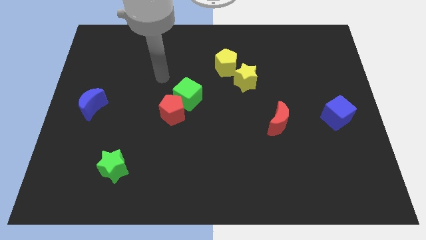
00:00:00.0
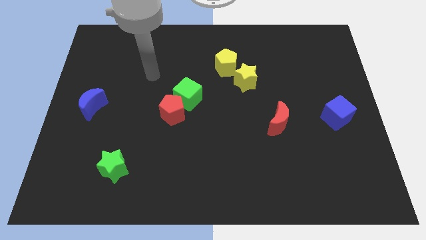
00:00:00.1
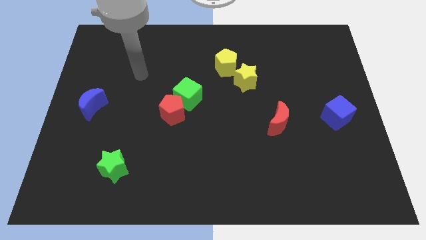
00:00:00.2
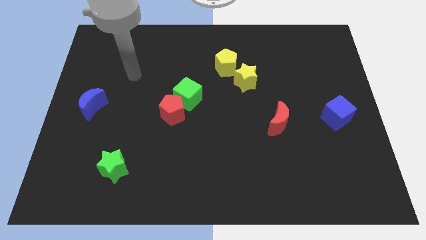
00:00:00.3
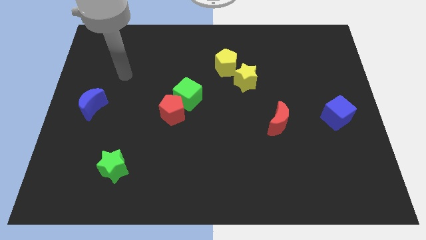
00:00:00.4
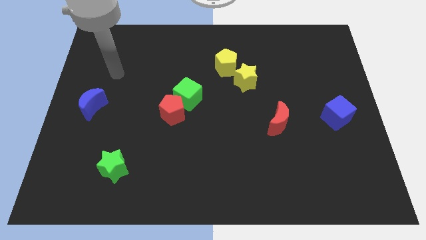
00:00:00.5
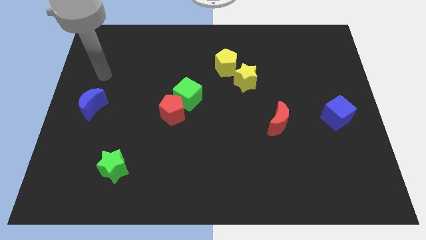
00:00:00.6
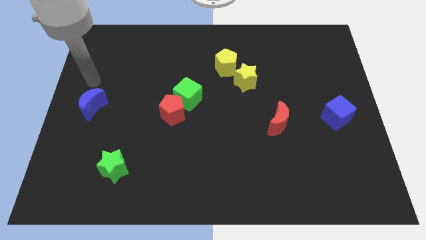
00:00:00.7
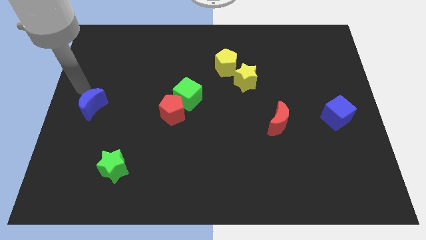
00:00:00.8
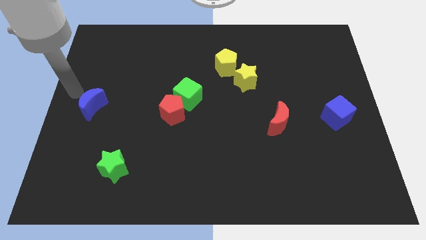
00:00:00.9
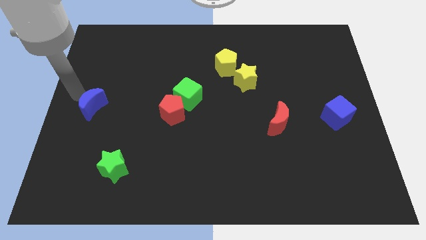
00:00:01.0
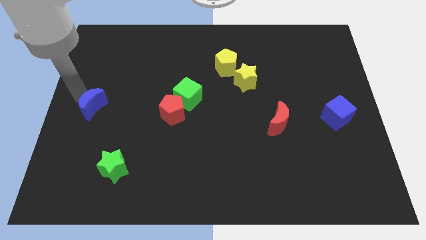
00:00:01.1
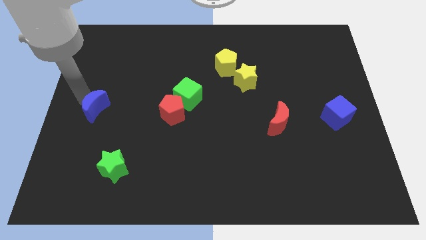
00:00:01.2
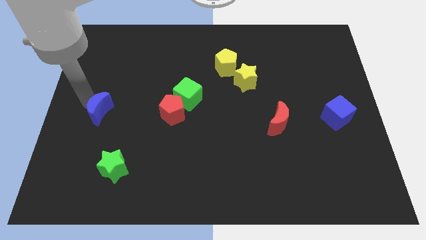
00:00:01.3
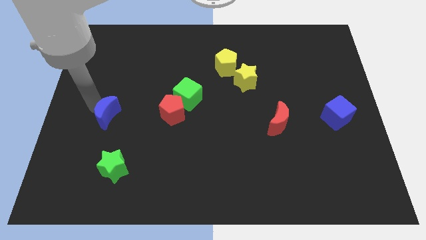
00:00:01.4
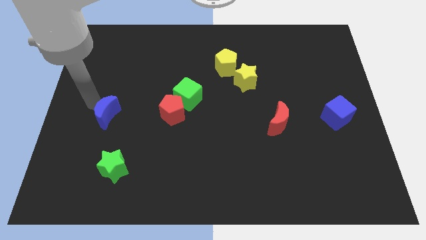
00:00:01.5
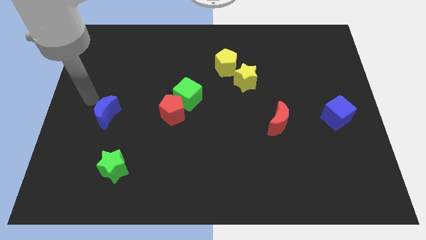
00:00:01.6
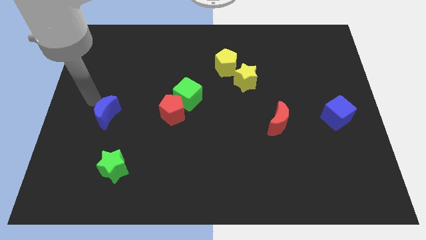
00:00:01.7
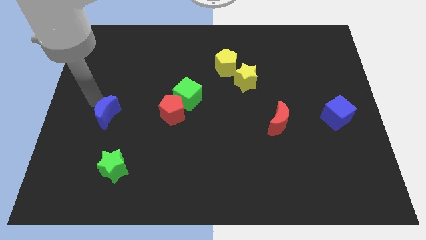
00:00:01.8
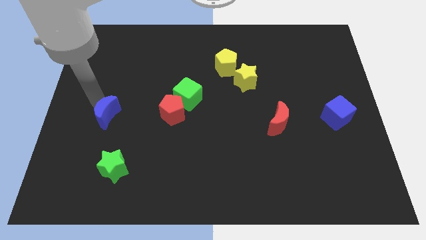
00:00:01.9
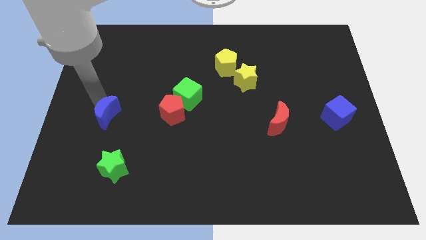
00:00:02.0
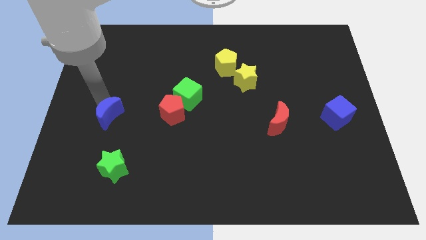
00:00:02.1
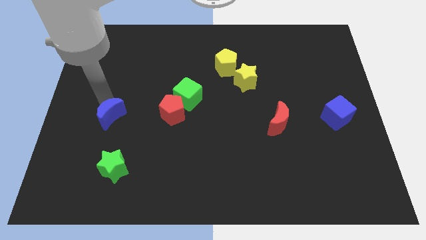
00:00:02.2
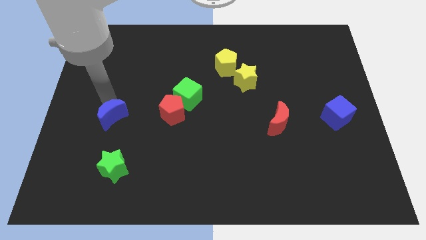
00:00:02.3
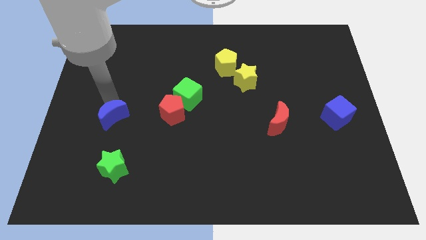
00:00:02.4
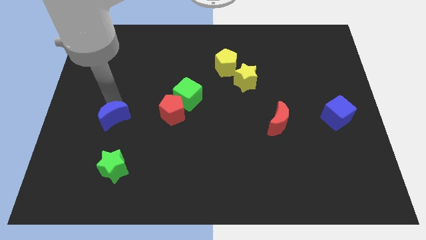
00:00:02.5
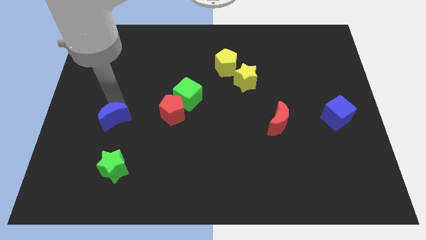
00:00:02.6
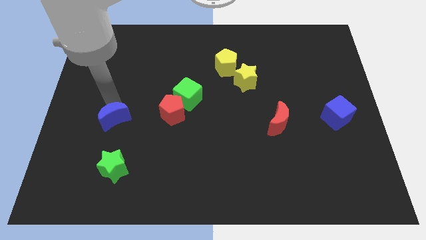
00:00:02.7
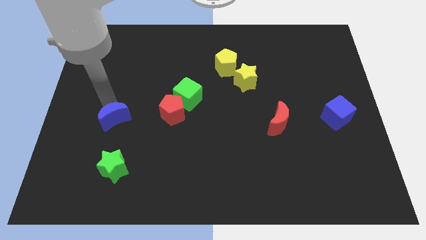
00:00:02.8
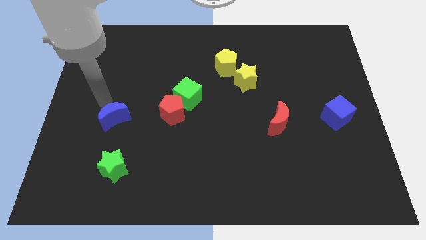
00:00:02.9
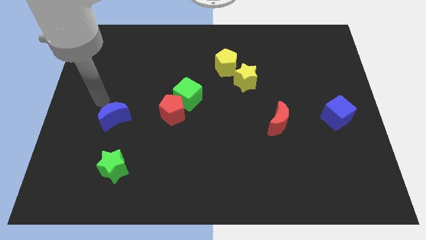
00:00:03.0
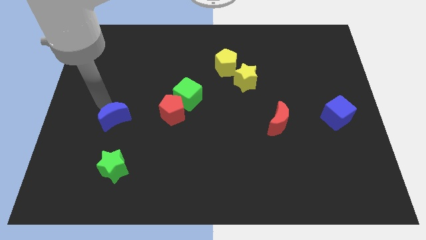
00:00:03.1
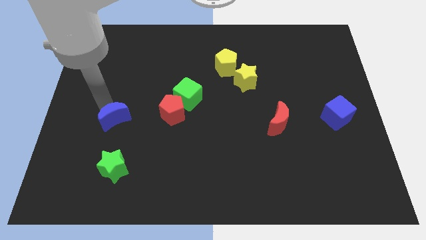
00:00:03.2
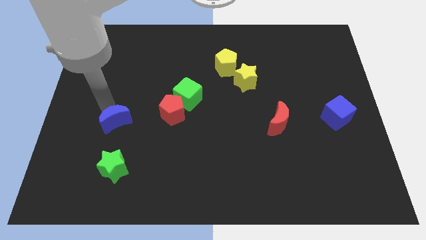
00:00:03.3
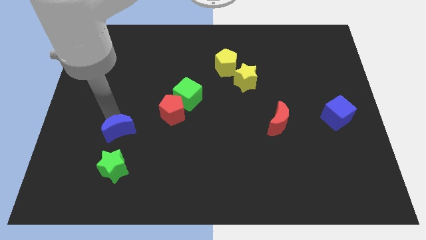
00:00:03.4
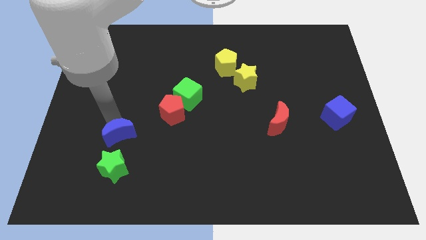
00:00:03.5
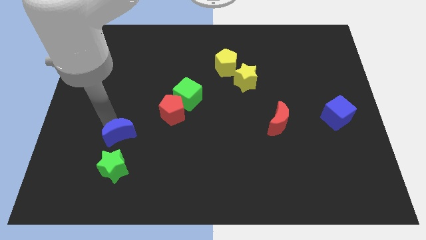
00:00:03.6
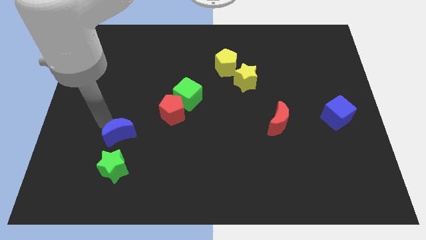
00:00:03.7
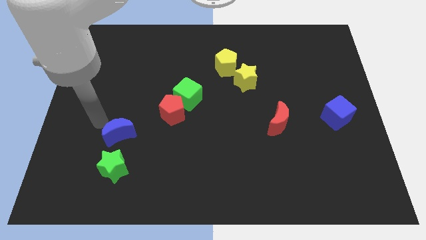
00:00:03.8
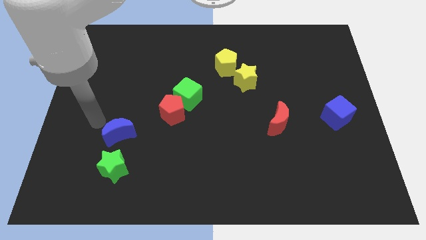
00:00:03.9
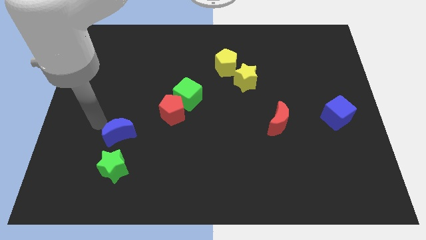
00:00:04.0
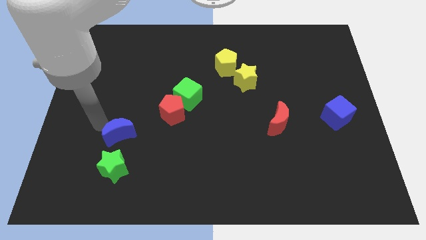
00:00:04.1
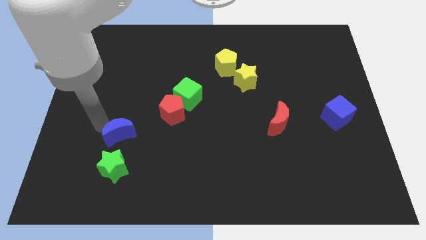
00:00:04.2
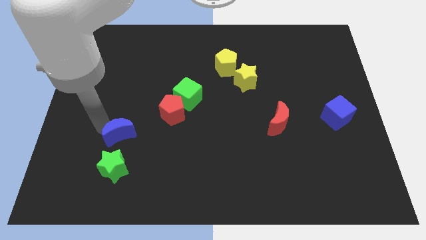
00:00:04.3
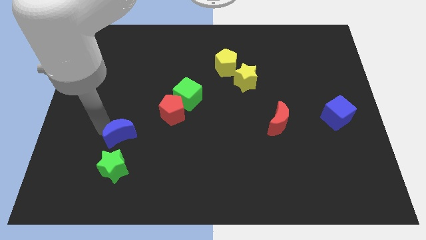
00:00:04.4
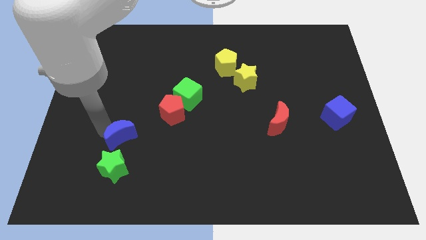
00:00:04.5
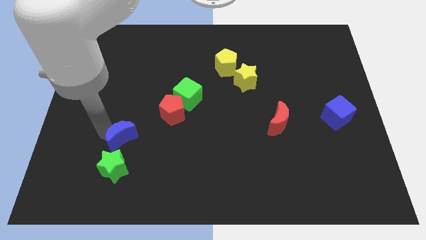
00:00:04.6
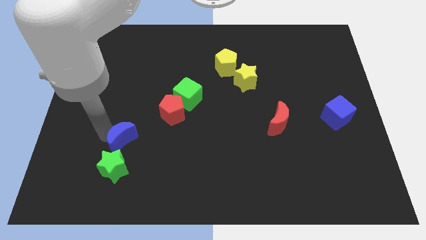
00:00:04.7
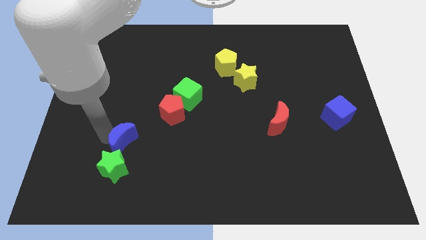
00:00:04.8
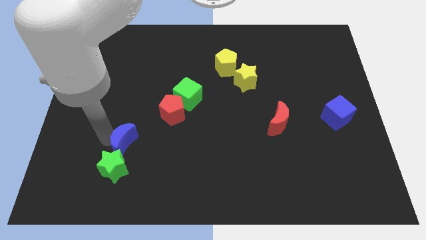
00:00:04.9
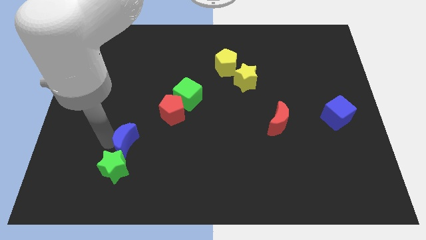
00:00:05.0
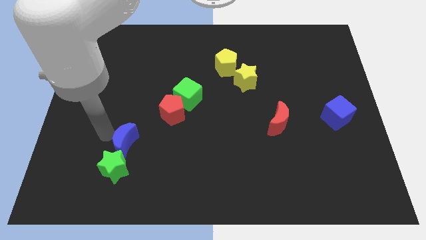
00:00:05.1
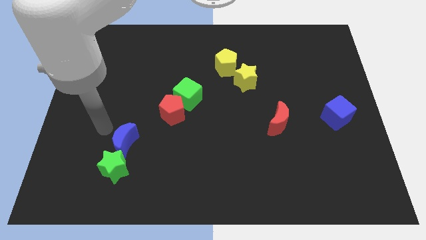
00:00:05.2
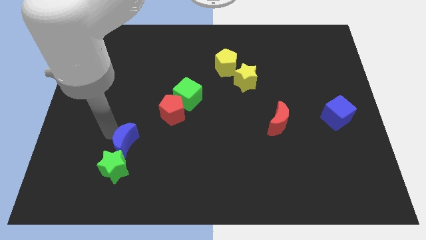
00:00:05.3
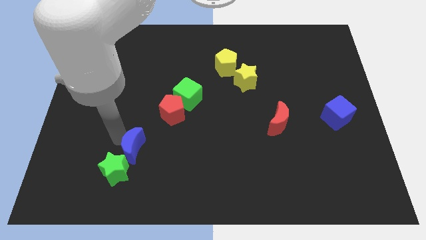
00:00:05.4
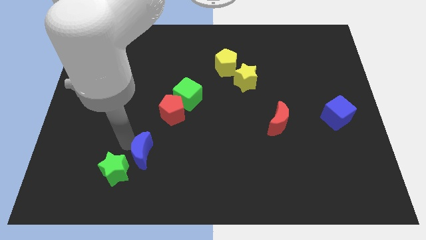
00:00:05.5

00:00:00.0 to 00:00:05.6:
push the blue moon to the right of the green star

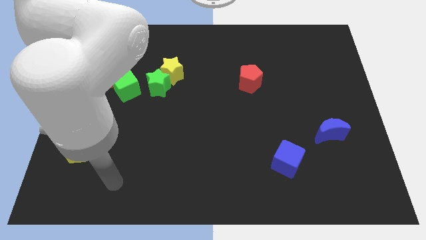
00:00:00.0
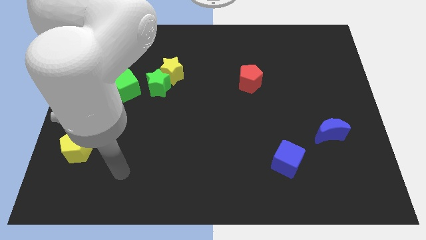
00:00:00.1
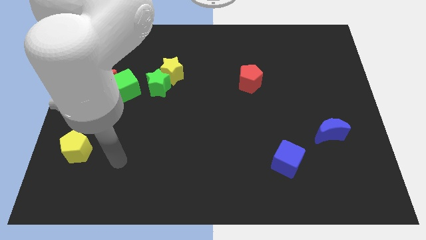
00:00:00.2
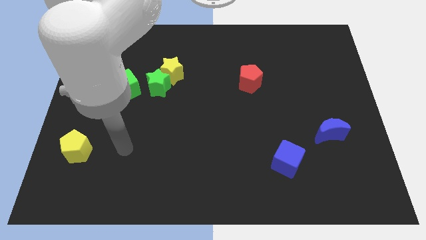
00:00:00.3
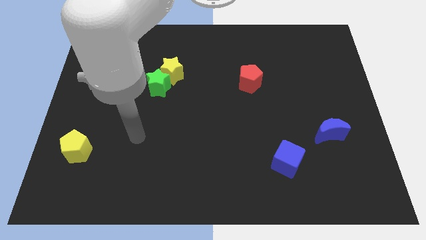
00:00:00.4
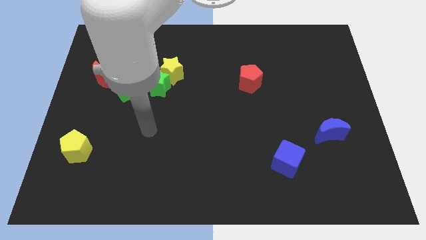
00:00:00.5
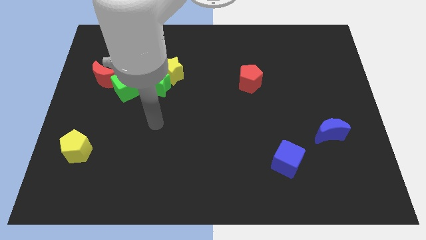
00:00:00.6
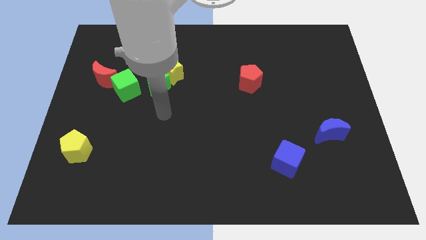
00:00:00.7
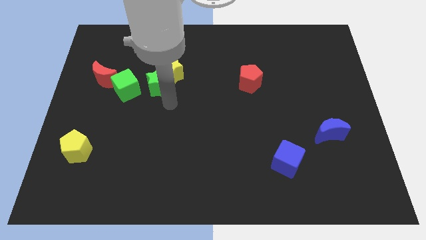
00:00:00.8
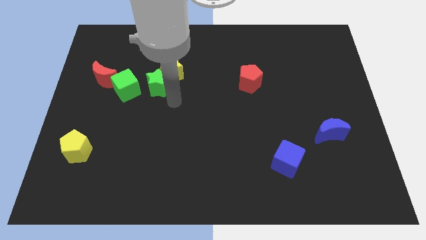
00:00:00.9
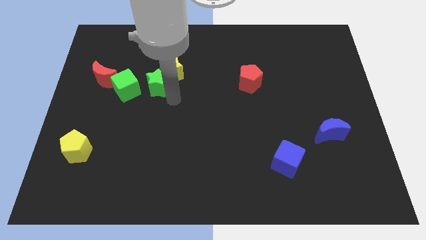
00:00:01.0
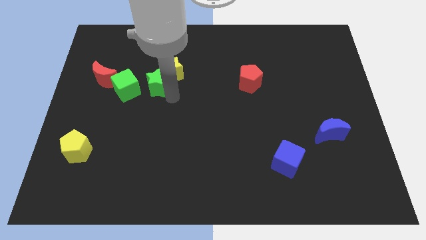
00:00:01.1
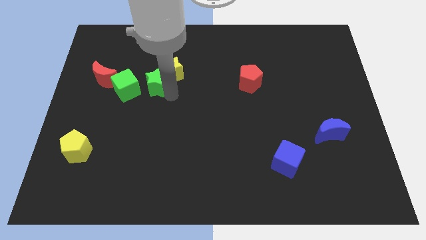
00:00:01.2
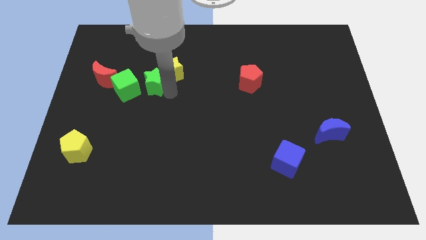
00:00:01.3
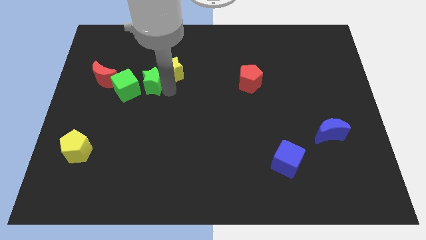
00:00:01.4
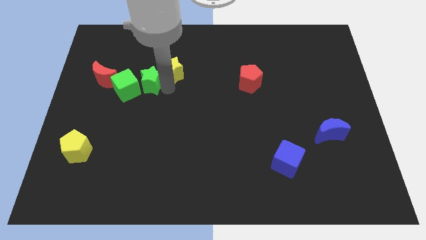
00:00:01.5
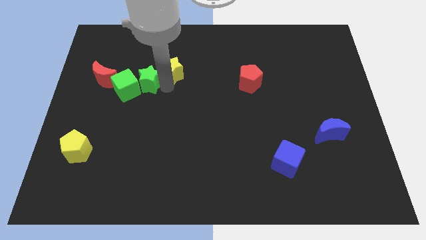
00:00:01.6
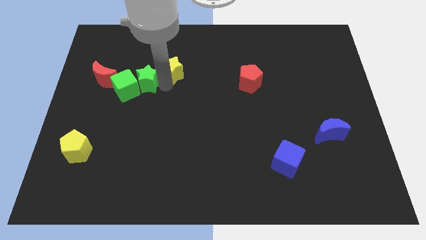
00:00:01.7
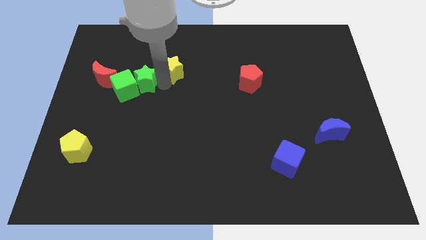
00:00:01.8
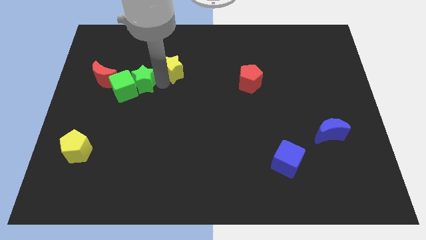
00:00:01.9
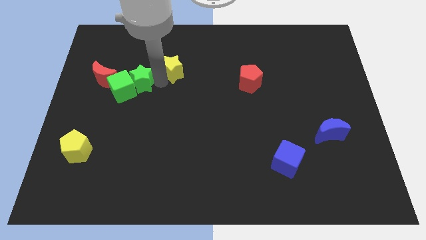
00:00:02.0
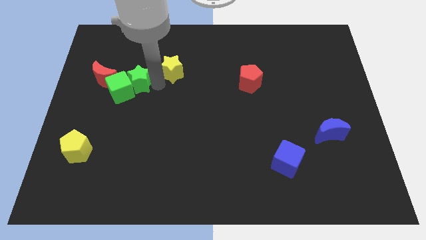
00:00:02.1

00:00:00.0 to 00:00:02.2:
push the green star above the green cube
